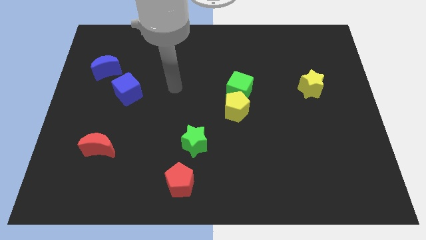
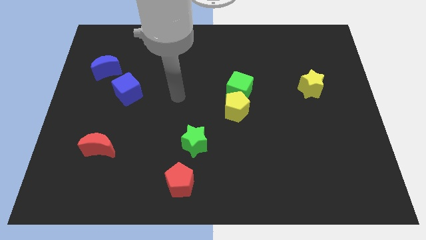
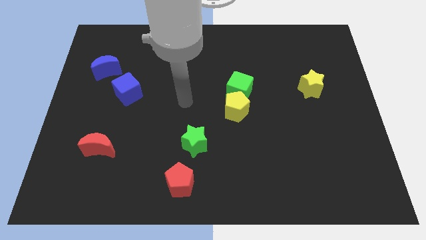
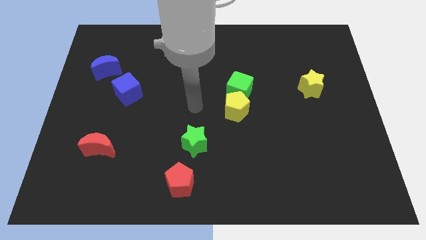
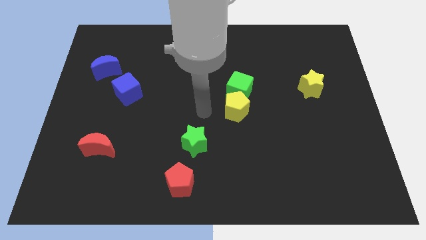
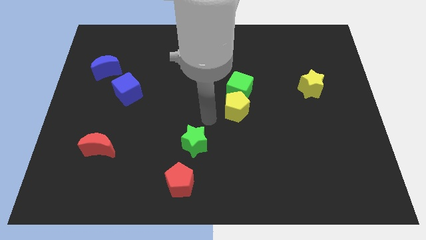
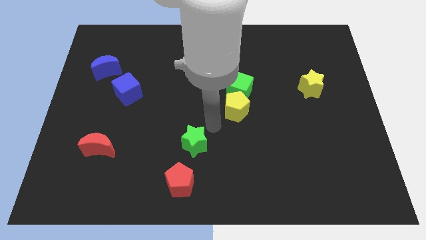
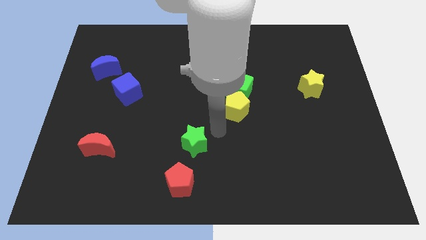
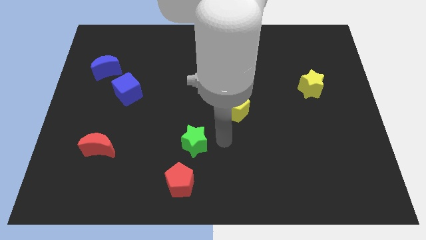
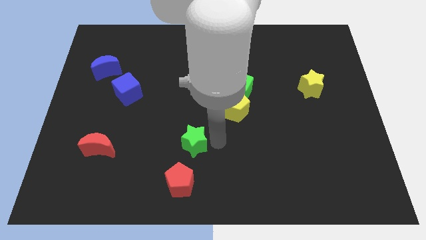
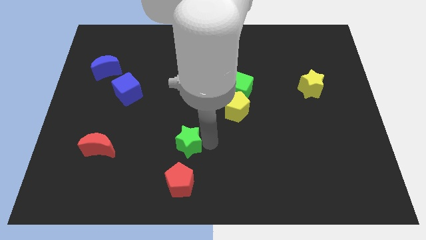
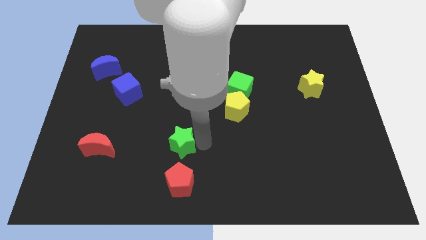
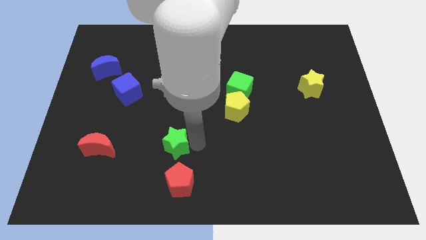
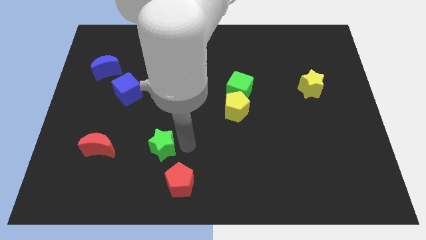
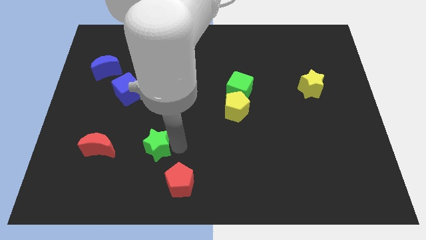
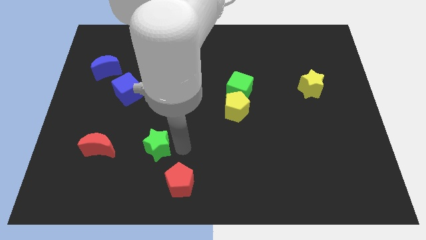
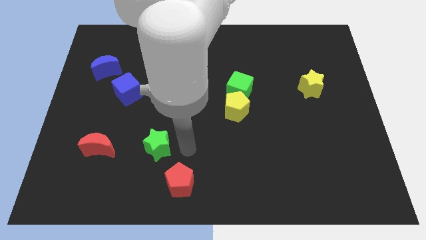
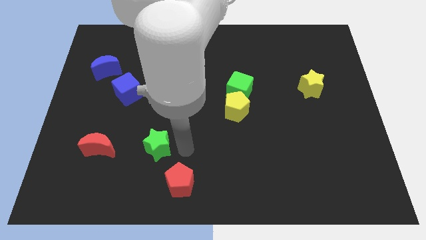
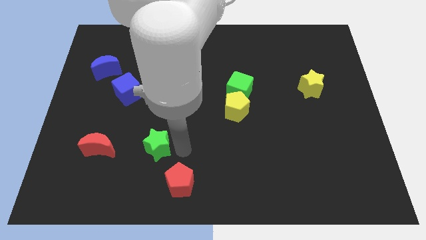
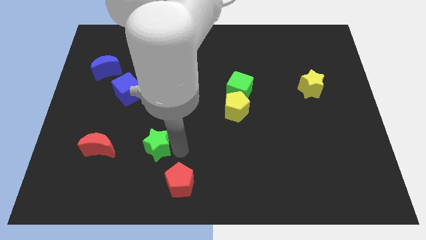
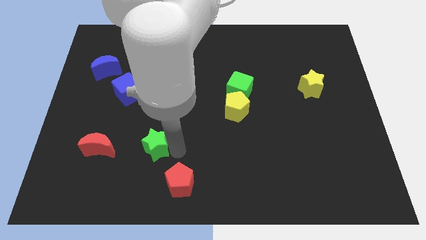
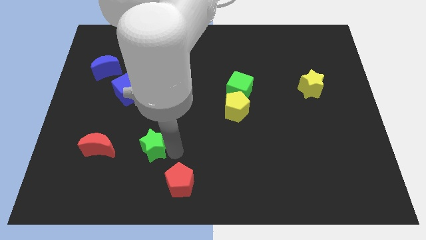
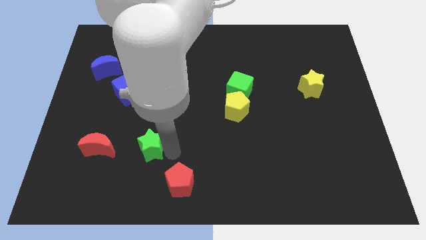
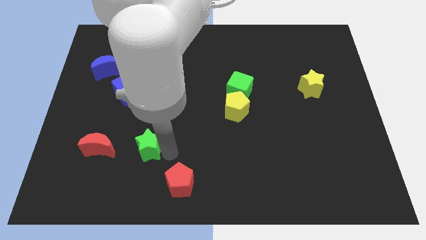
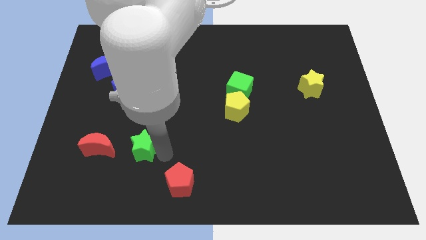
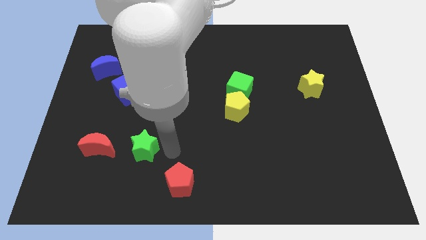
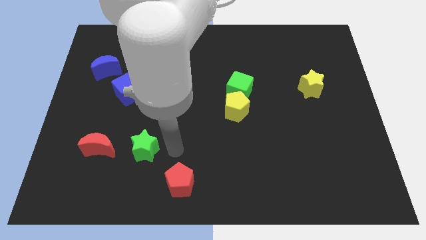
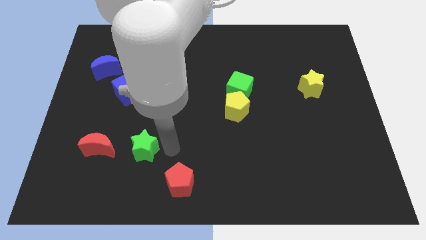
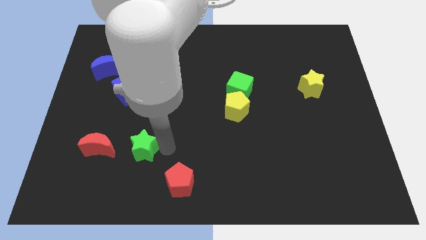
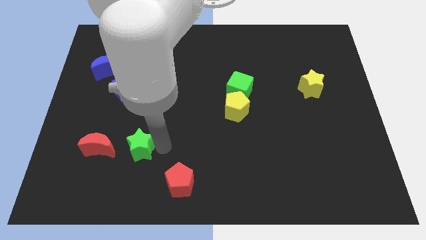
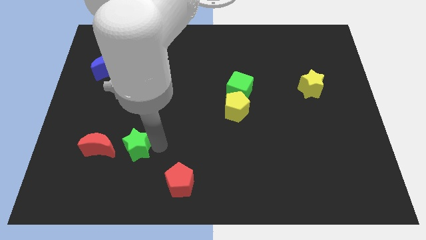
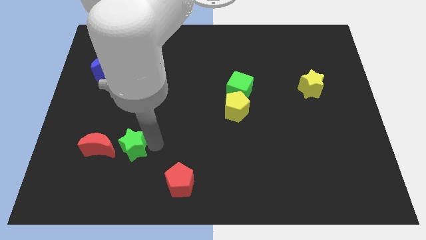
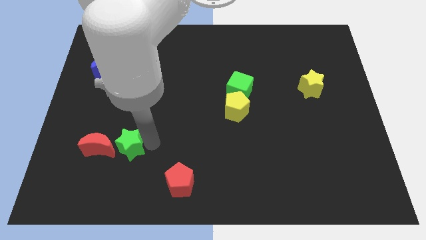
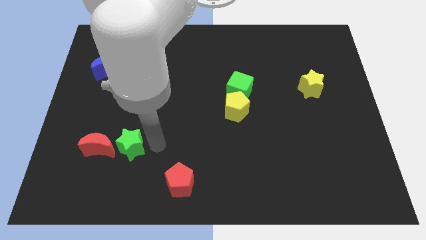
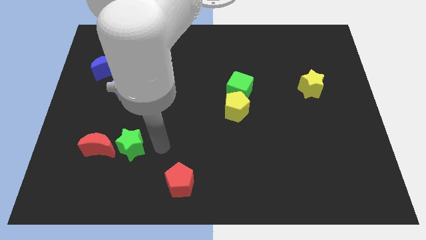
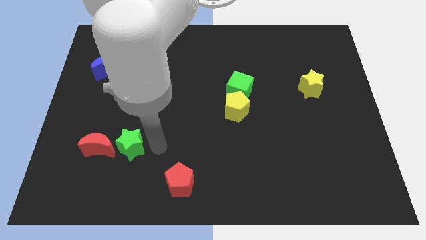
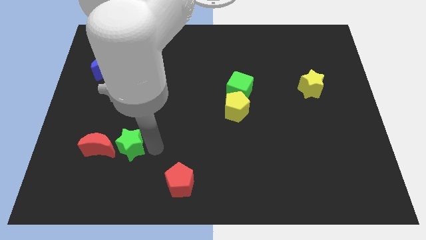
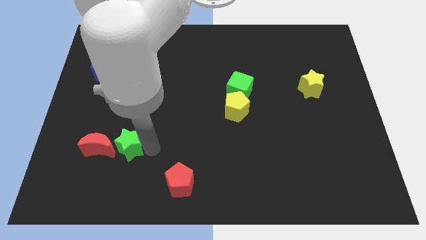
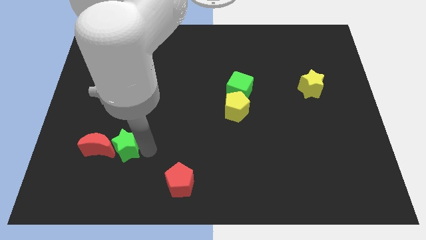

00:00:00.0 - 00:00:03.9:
move the green star next to the red moon

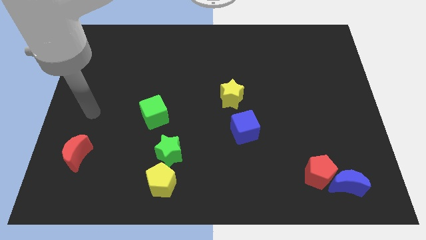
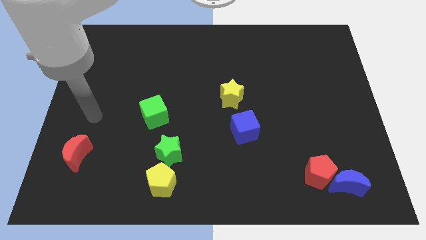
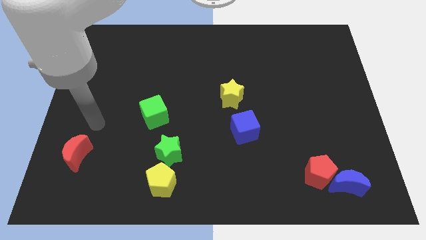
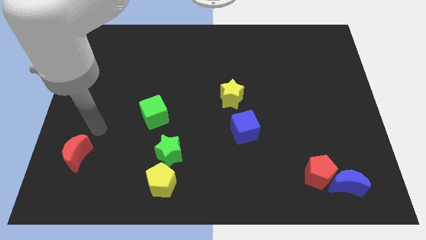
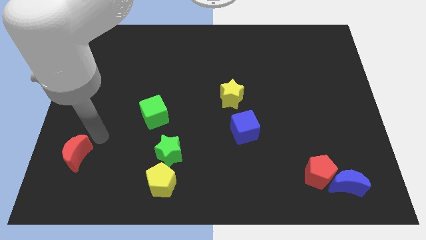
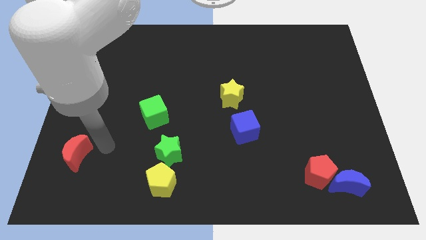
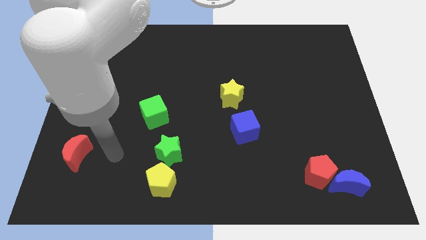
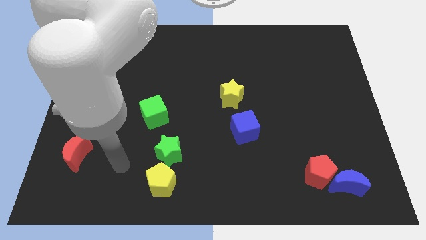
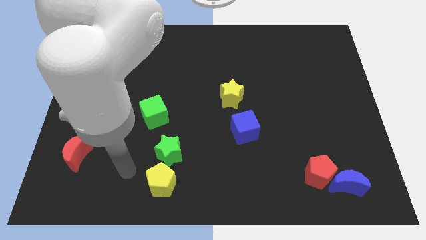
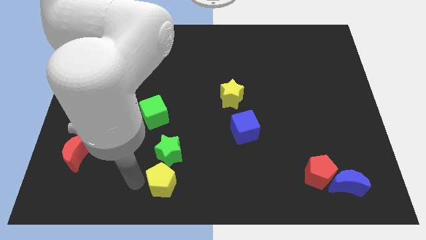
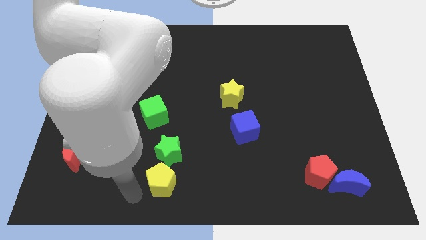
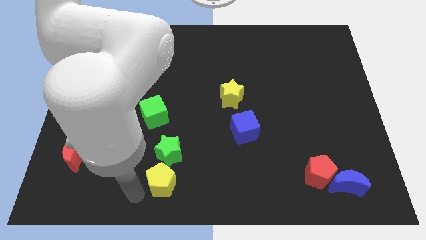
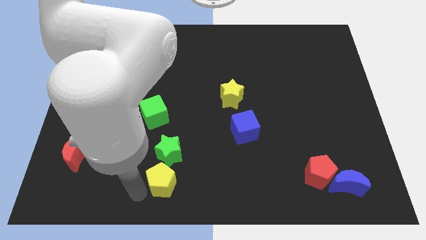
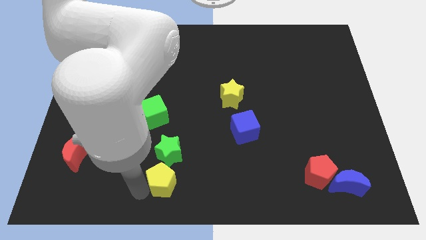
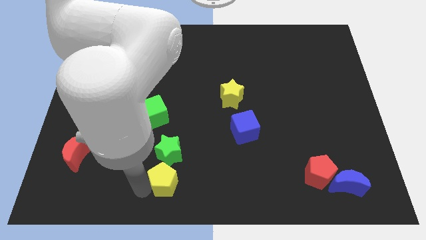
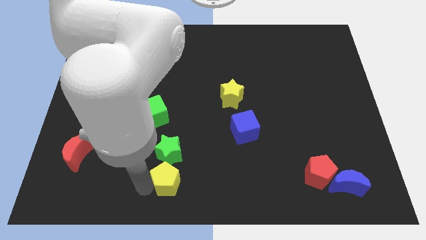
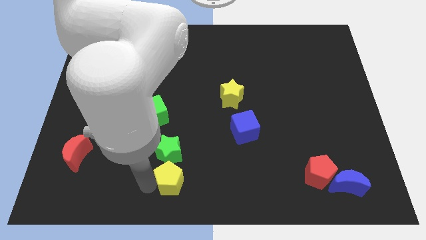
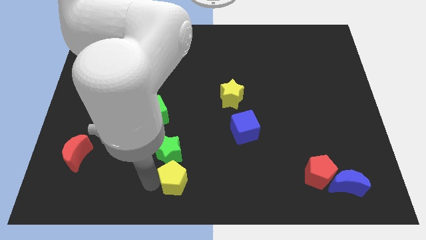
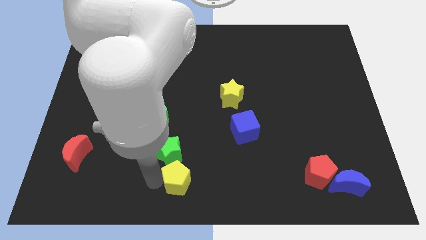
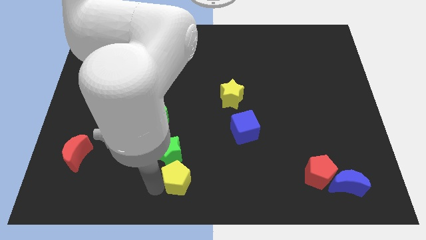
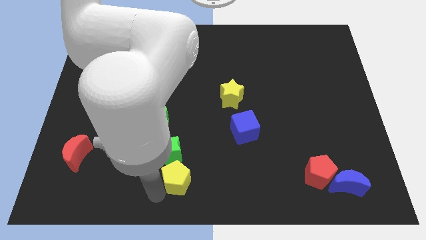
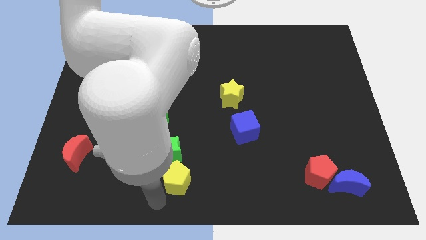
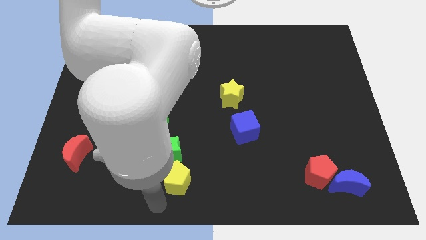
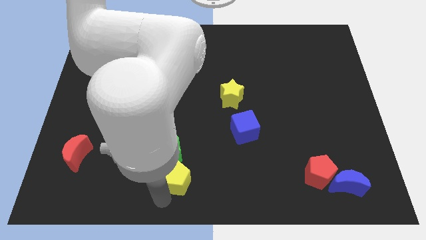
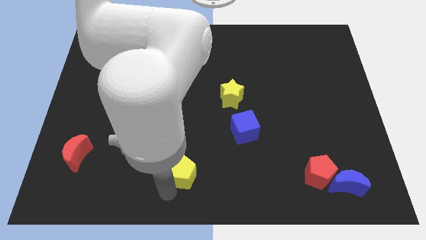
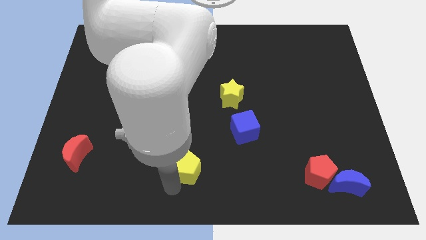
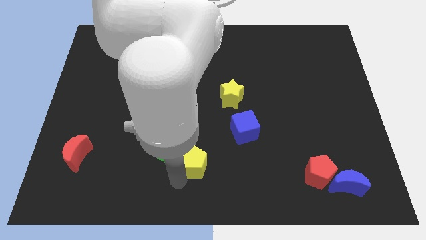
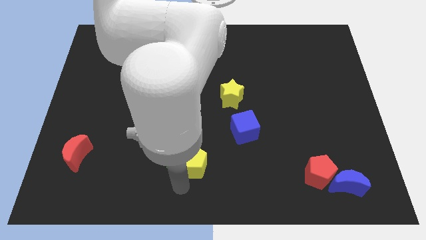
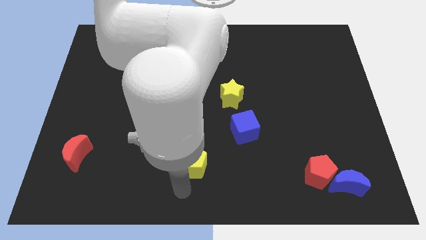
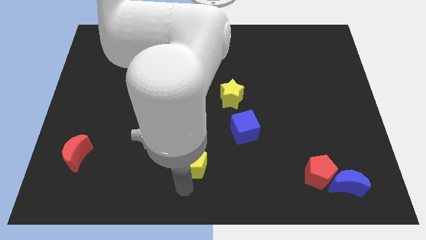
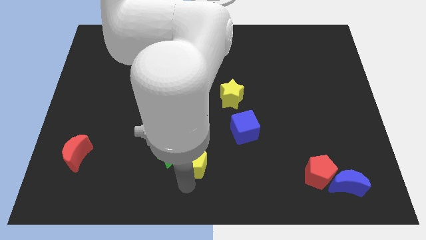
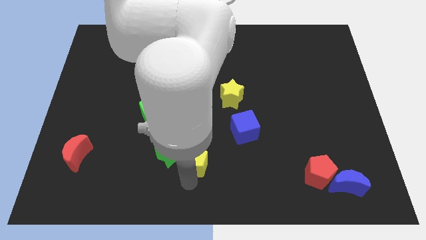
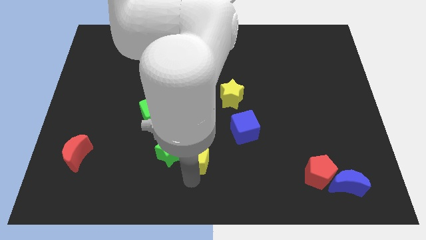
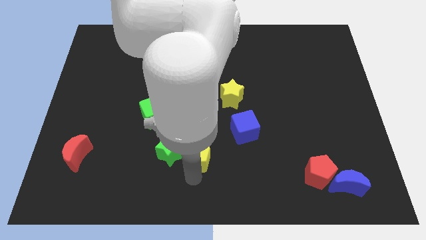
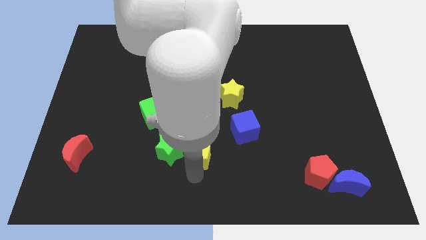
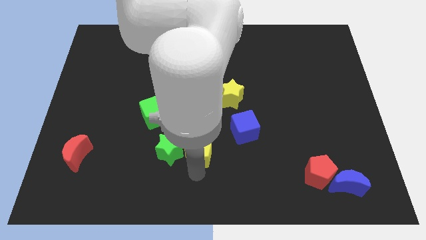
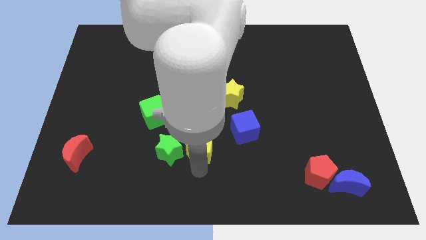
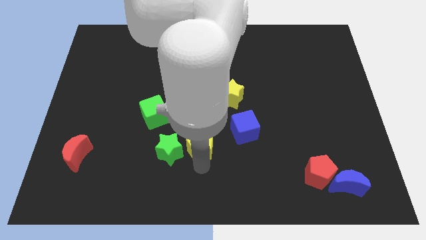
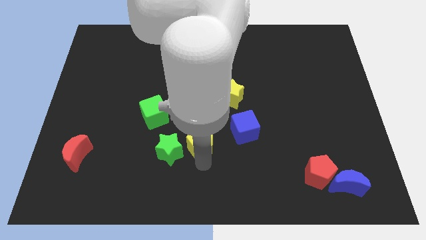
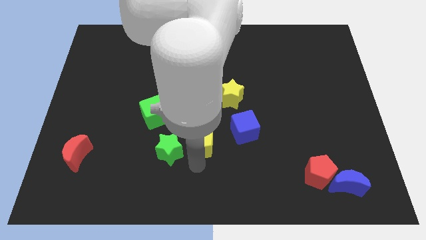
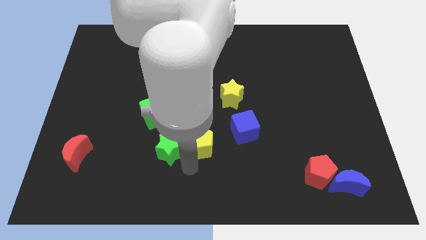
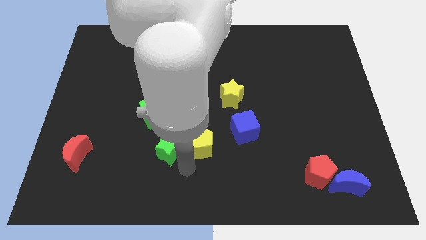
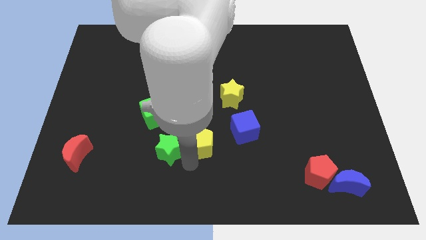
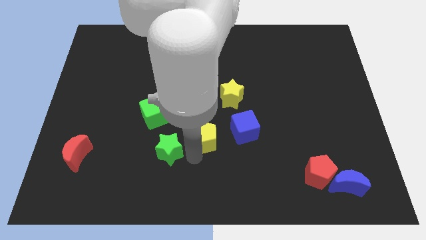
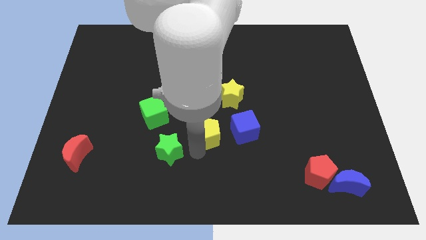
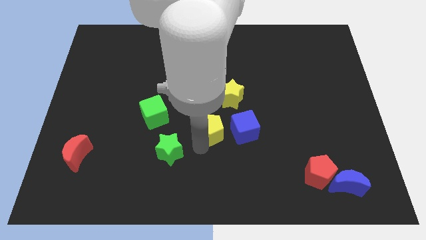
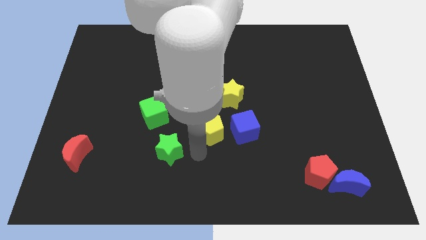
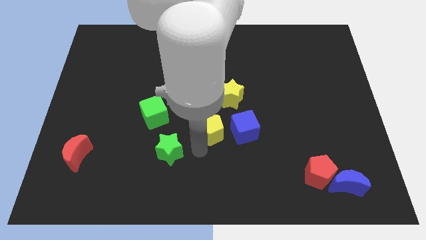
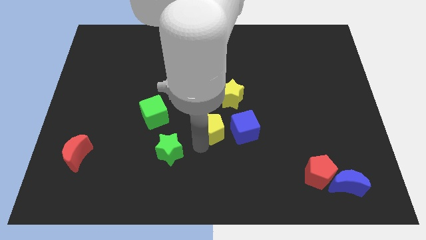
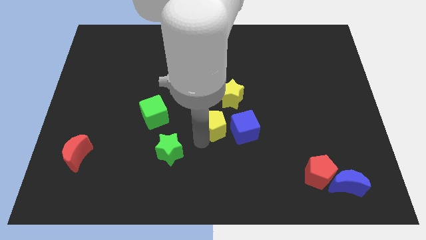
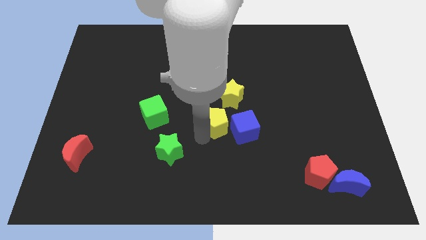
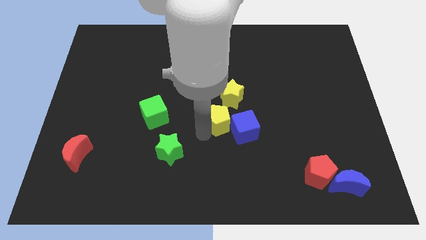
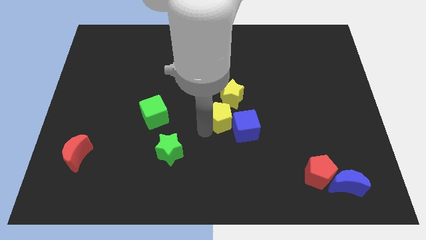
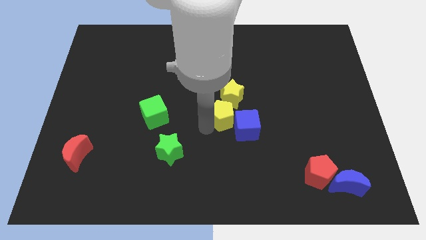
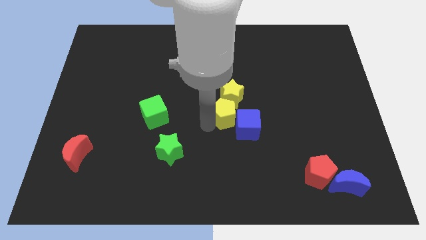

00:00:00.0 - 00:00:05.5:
move the yellow pentagon to the yellow star
